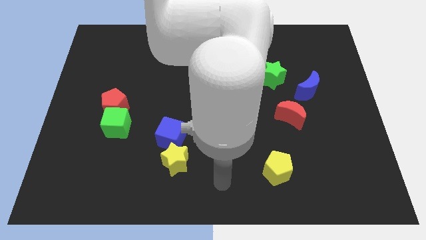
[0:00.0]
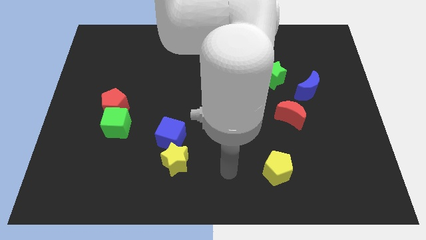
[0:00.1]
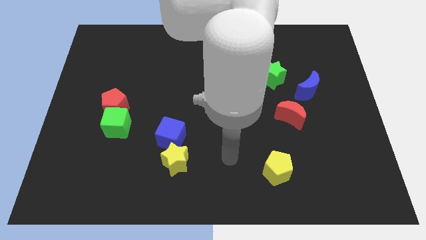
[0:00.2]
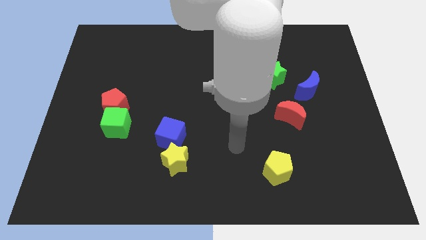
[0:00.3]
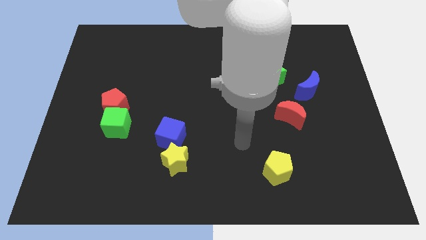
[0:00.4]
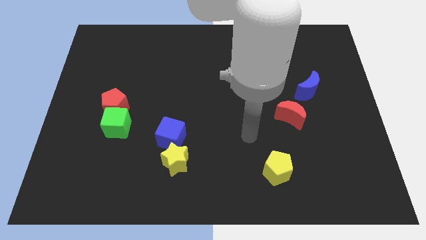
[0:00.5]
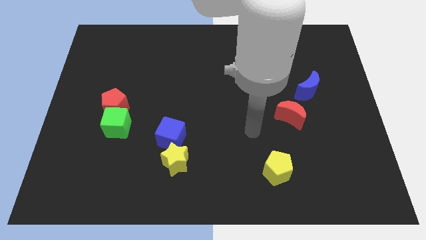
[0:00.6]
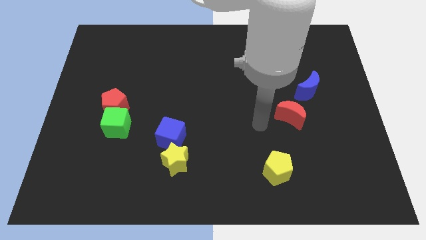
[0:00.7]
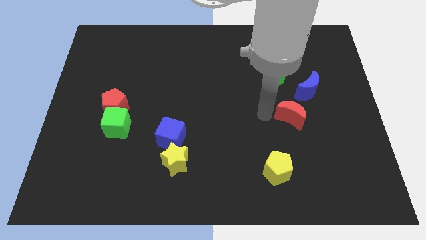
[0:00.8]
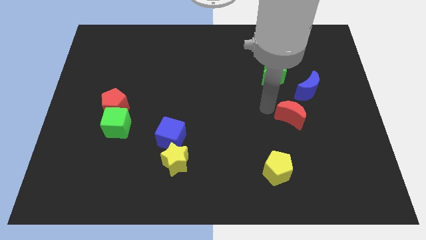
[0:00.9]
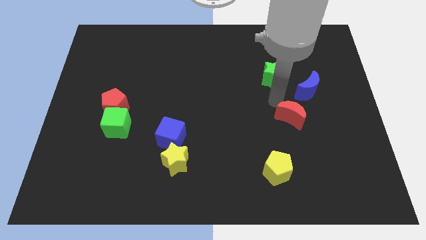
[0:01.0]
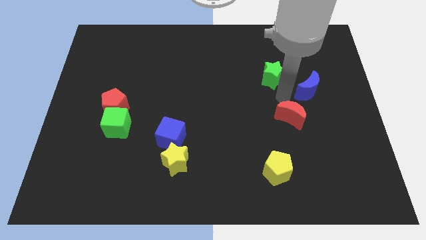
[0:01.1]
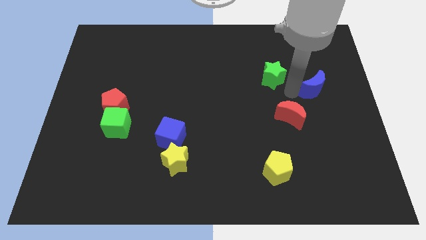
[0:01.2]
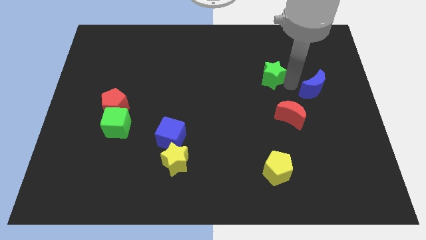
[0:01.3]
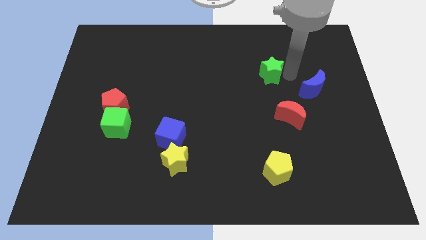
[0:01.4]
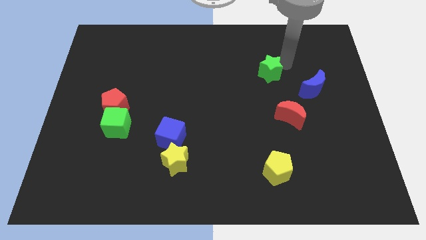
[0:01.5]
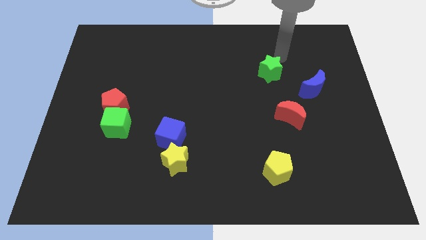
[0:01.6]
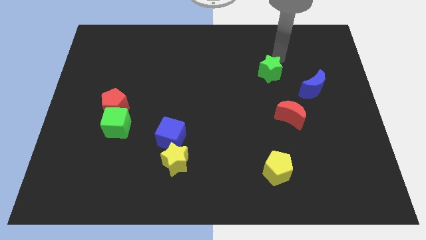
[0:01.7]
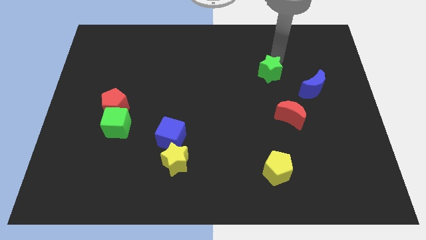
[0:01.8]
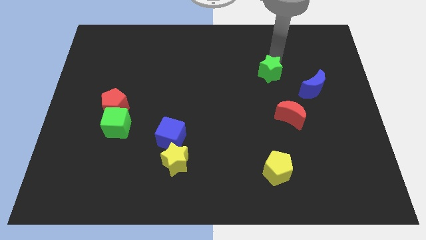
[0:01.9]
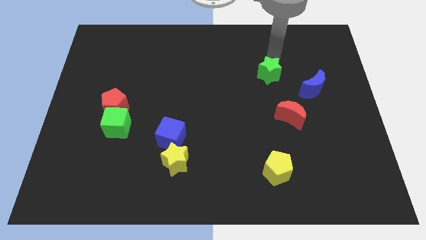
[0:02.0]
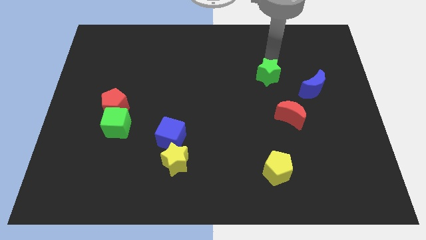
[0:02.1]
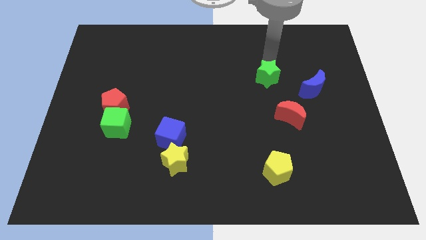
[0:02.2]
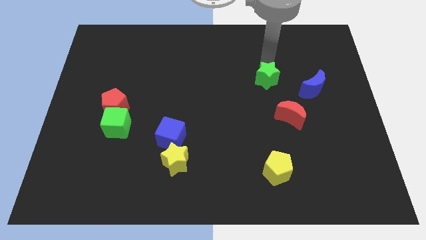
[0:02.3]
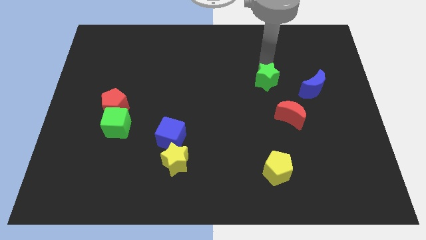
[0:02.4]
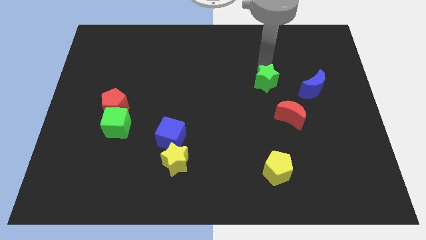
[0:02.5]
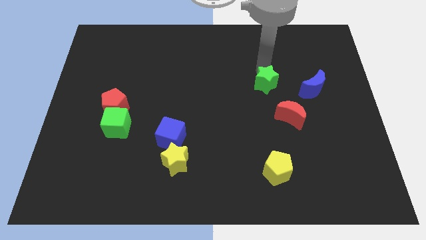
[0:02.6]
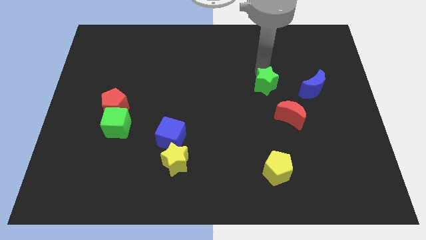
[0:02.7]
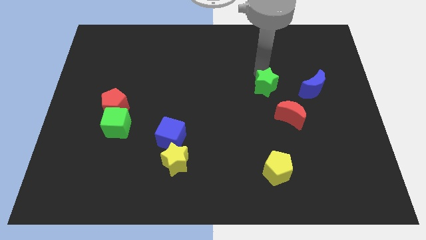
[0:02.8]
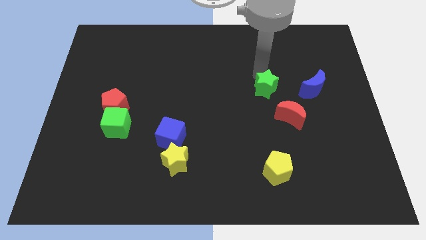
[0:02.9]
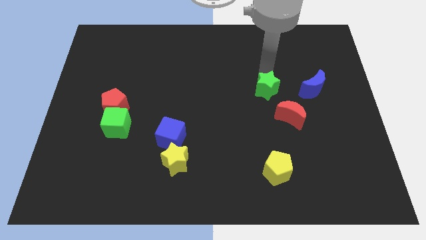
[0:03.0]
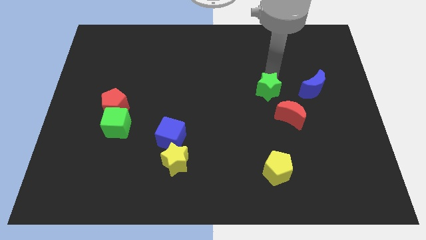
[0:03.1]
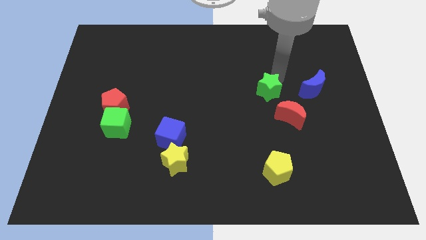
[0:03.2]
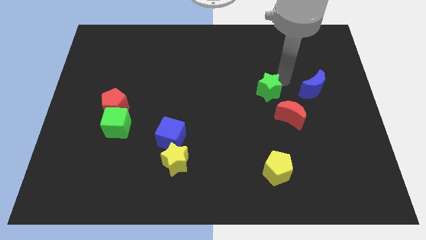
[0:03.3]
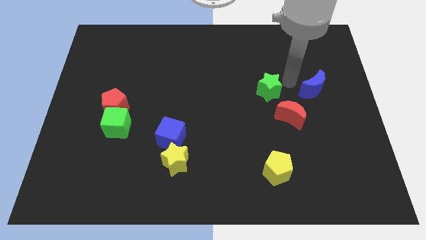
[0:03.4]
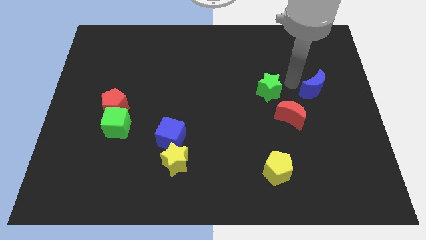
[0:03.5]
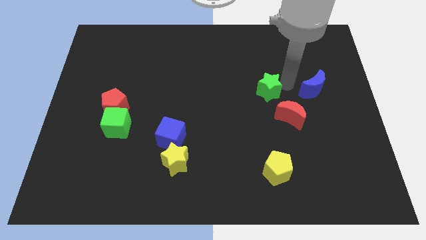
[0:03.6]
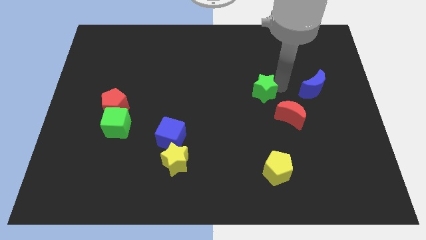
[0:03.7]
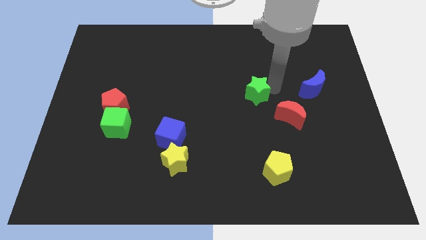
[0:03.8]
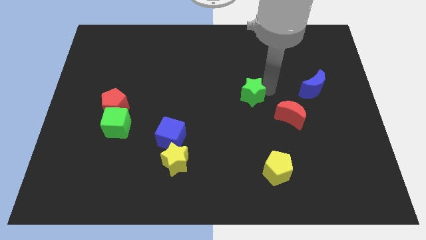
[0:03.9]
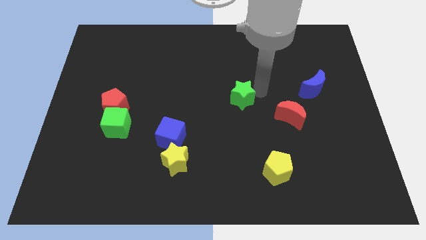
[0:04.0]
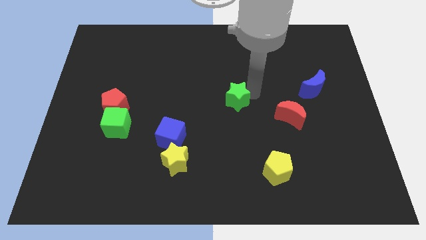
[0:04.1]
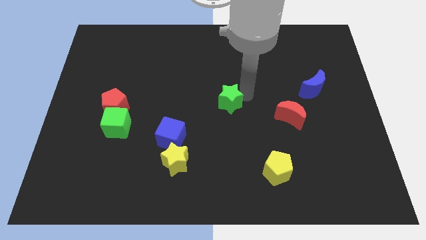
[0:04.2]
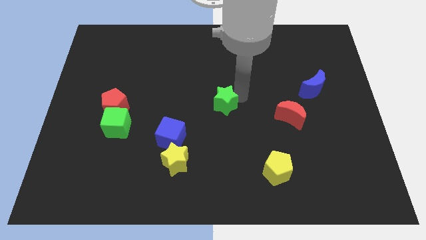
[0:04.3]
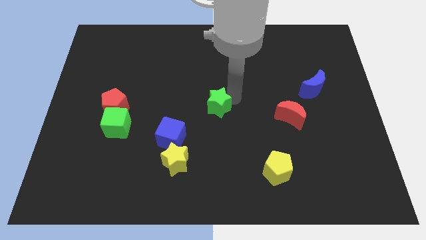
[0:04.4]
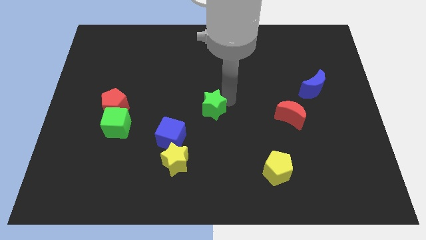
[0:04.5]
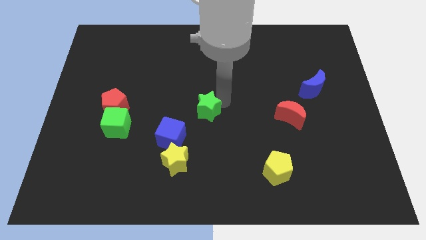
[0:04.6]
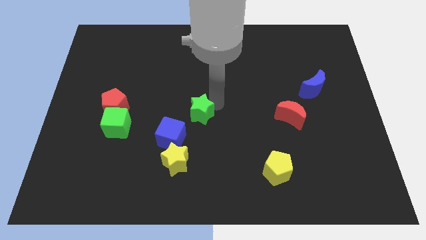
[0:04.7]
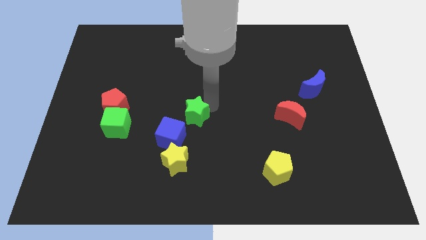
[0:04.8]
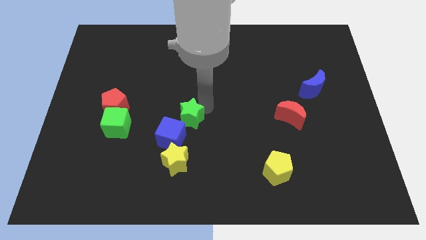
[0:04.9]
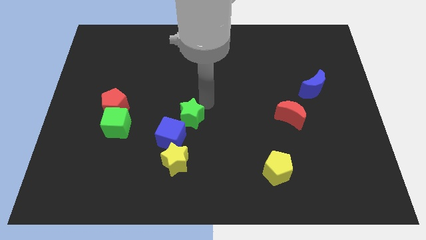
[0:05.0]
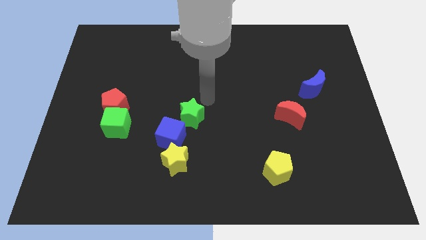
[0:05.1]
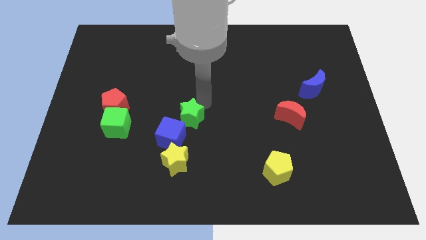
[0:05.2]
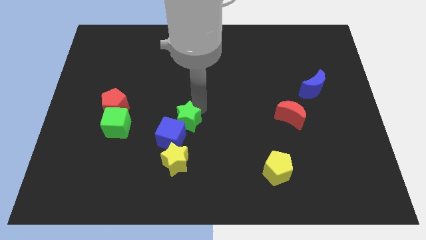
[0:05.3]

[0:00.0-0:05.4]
move the green star close to the blue cube

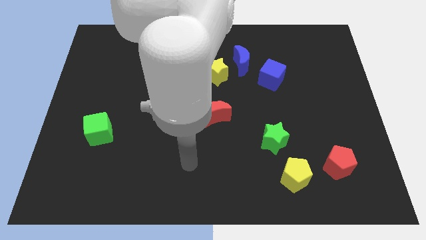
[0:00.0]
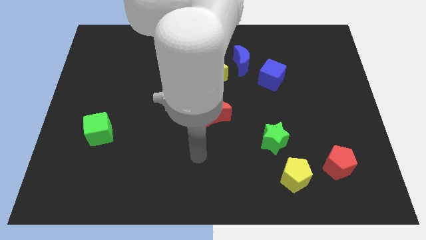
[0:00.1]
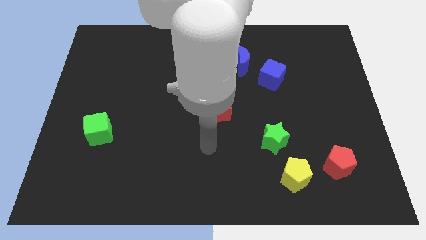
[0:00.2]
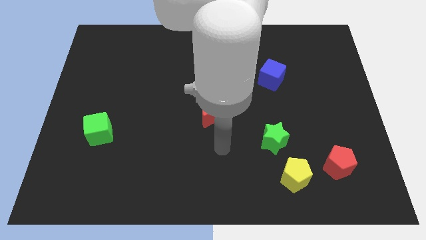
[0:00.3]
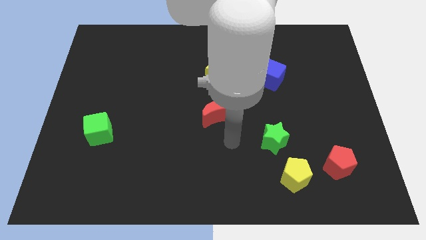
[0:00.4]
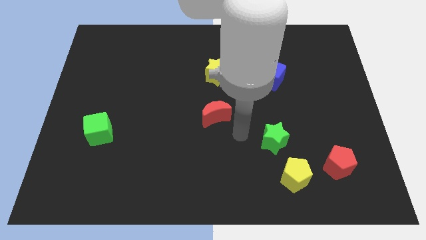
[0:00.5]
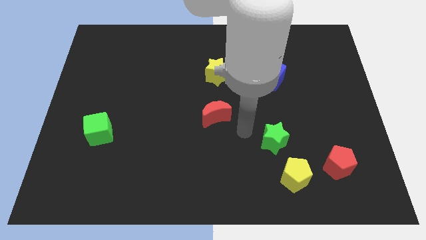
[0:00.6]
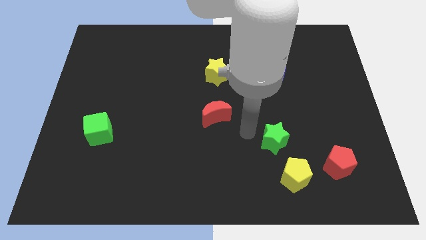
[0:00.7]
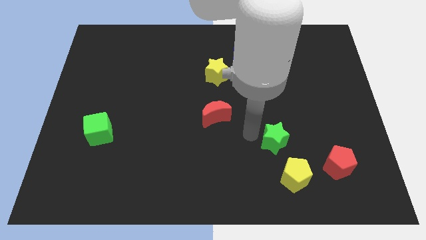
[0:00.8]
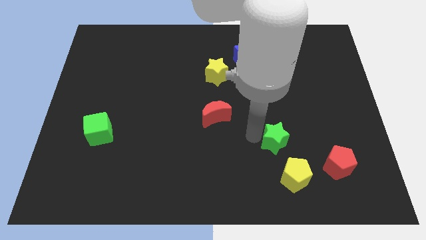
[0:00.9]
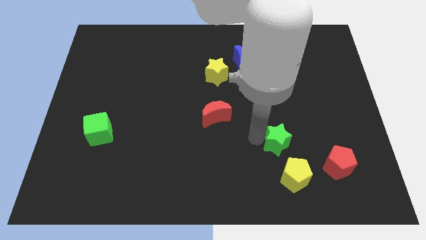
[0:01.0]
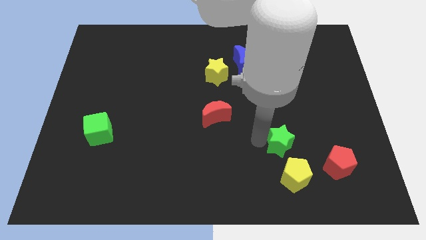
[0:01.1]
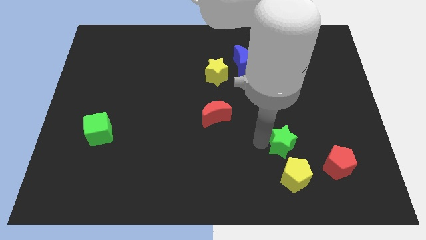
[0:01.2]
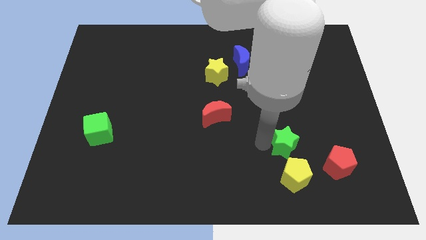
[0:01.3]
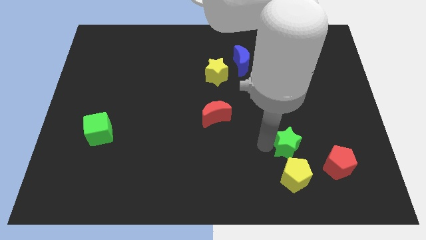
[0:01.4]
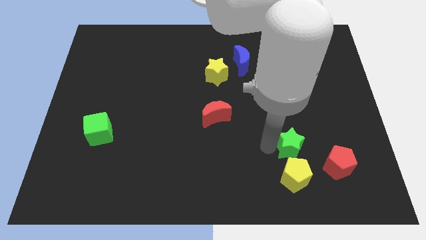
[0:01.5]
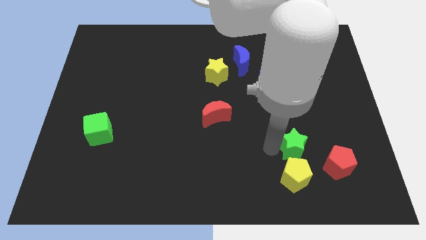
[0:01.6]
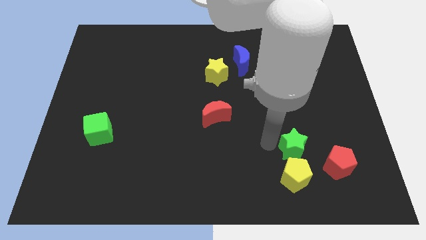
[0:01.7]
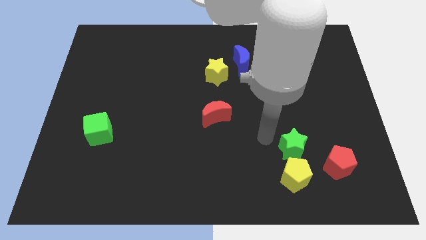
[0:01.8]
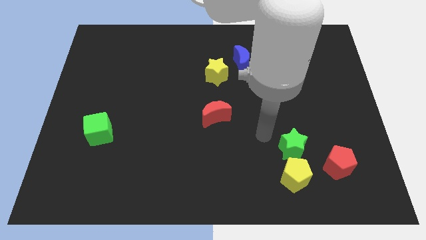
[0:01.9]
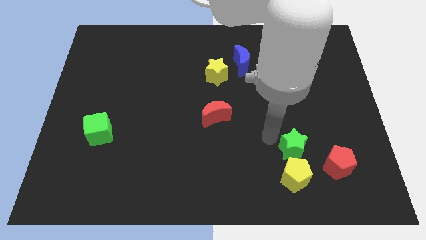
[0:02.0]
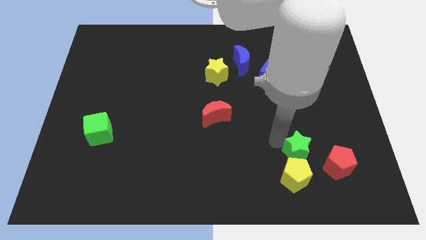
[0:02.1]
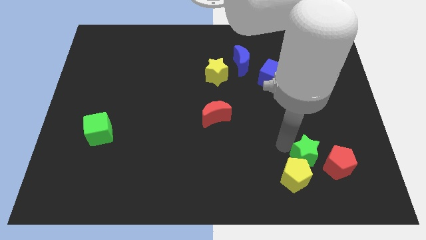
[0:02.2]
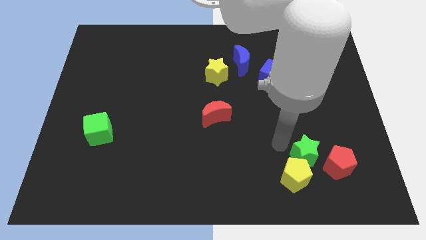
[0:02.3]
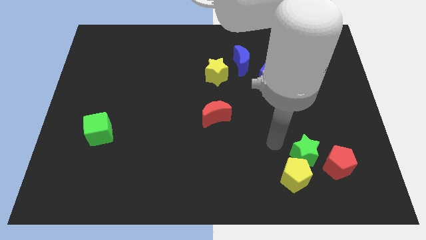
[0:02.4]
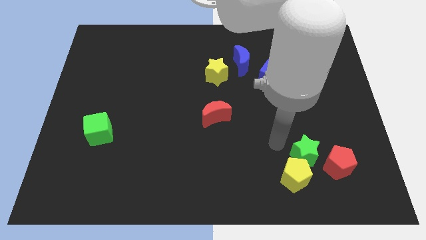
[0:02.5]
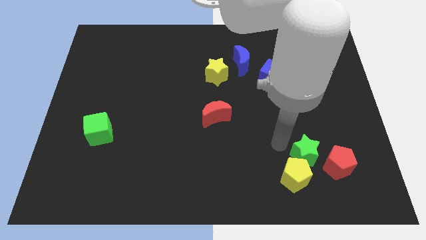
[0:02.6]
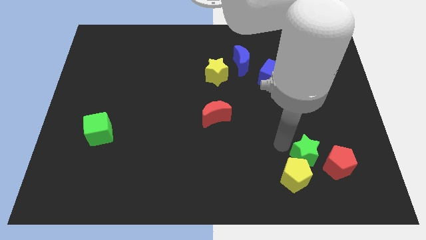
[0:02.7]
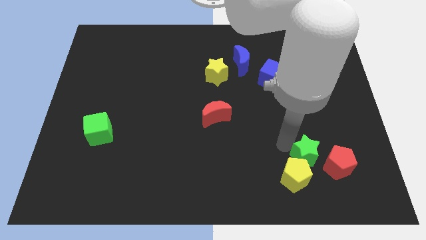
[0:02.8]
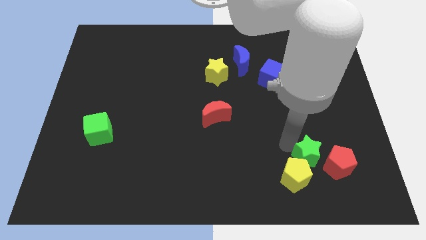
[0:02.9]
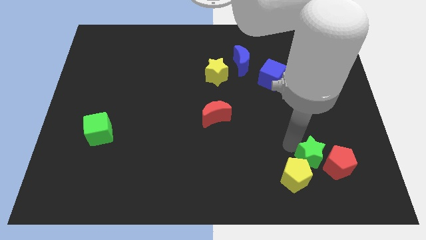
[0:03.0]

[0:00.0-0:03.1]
put the green star next to the red pentagon
